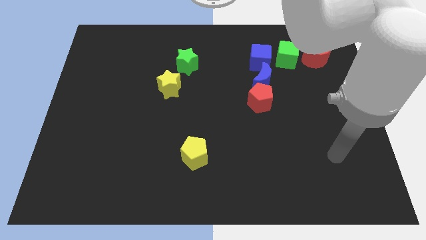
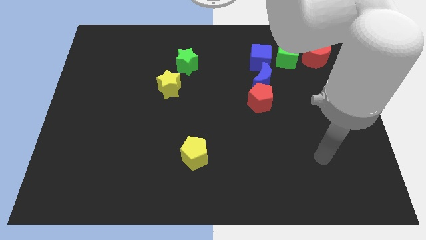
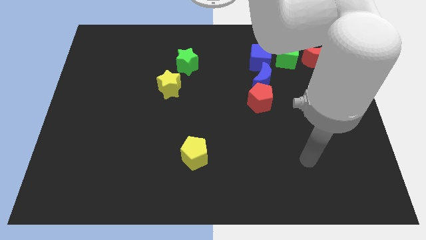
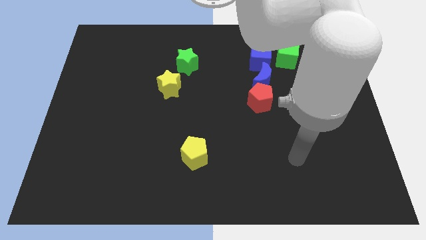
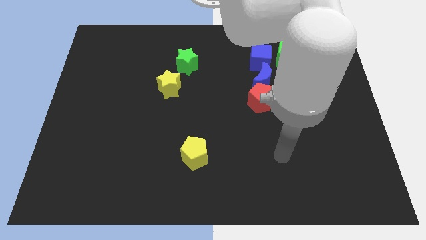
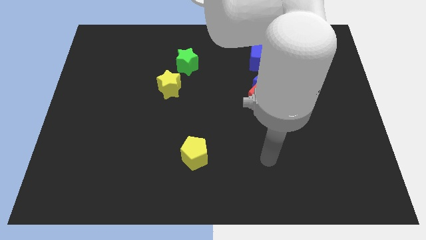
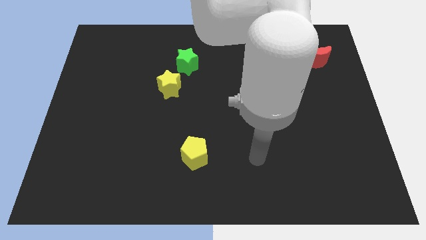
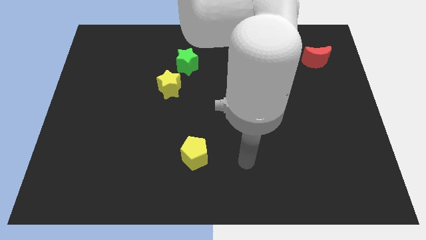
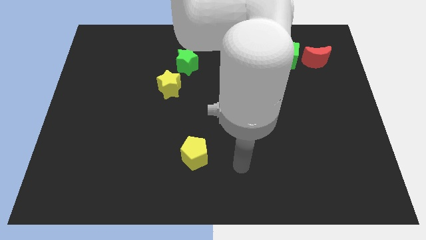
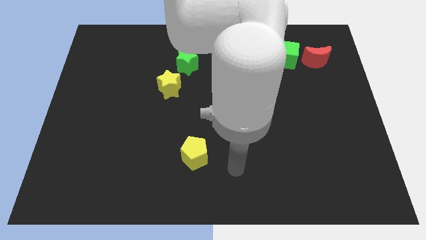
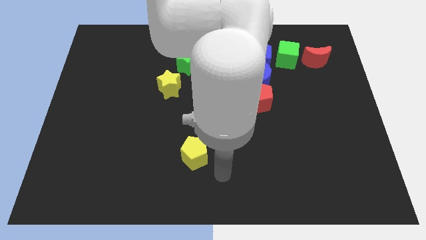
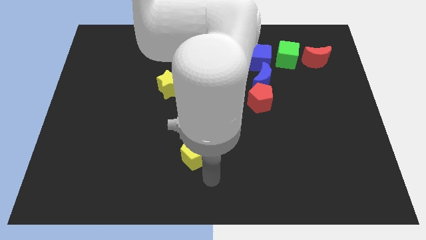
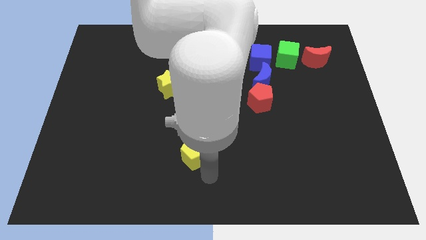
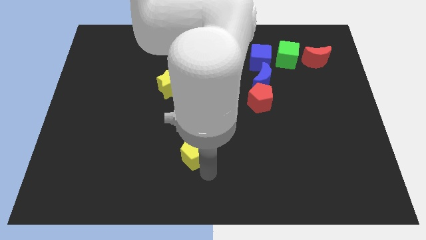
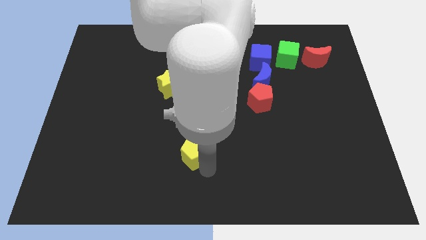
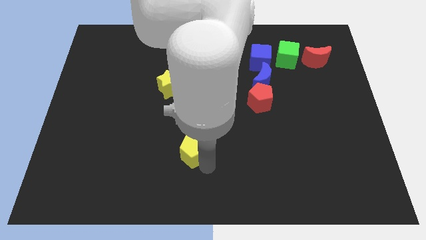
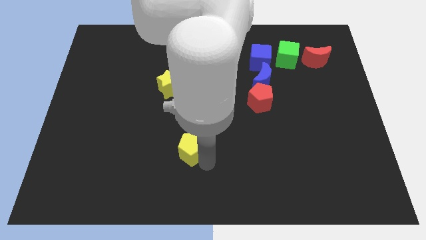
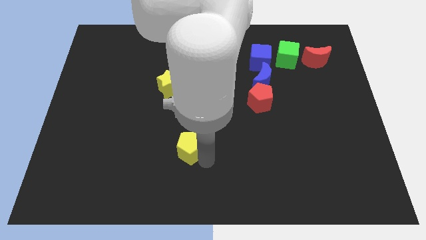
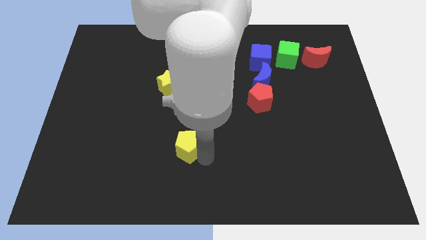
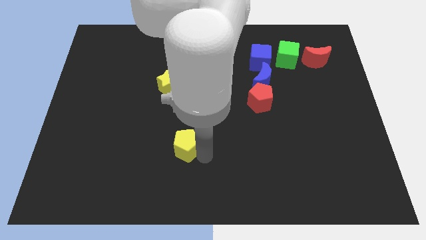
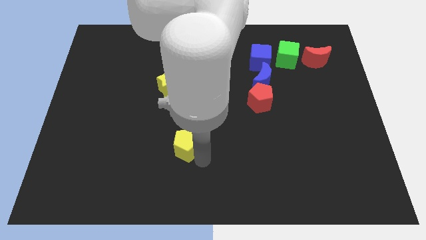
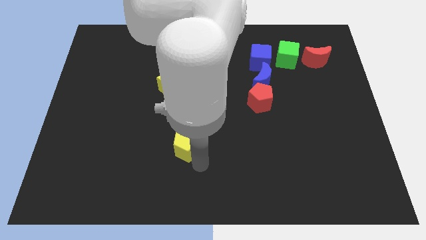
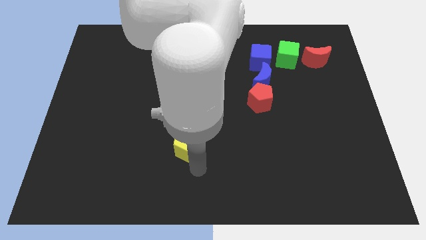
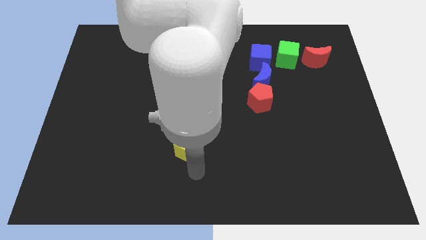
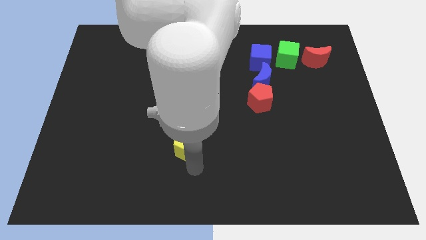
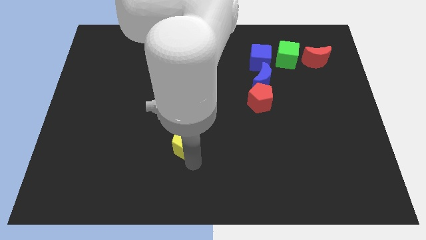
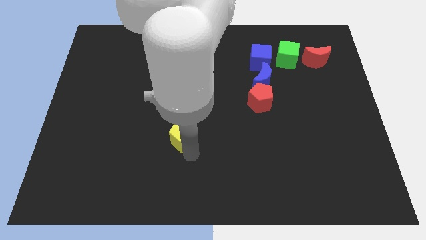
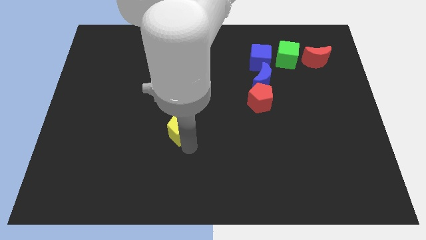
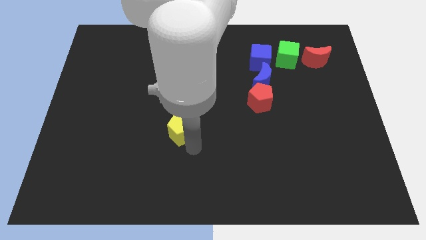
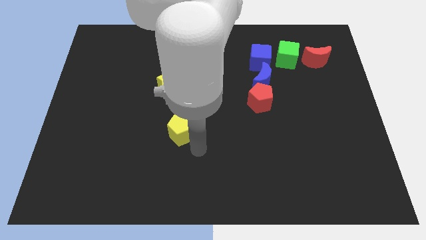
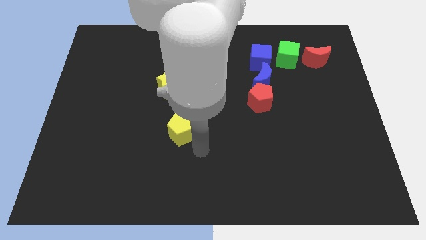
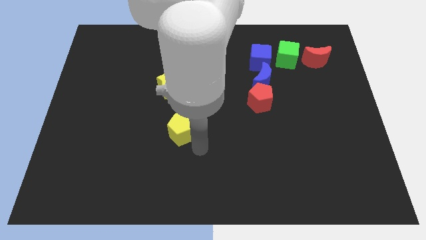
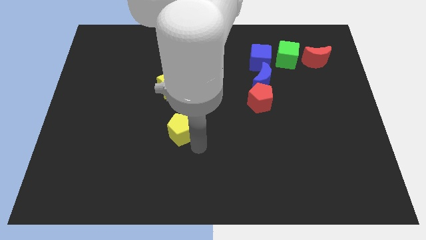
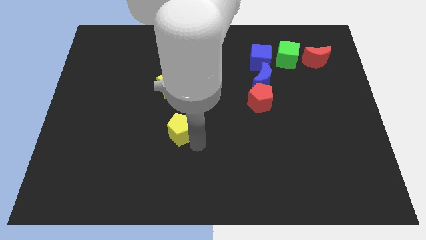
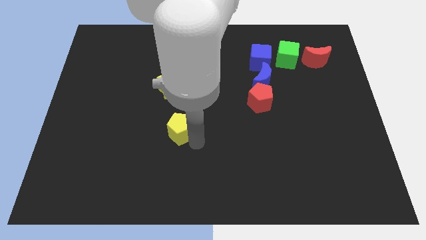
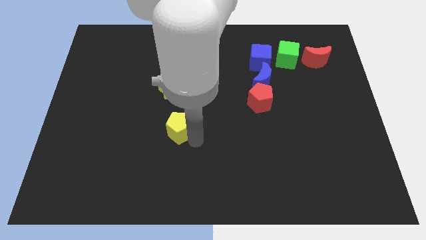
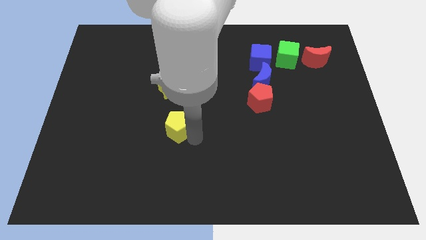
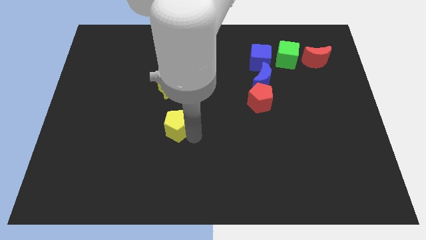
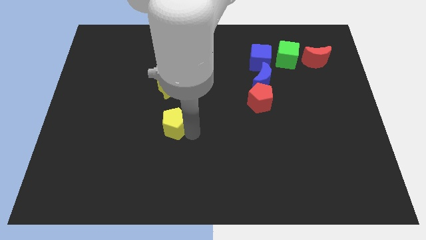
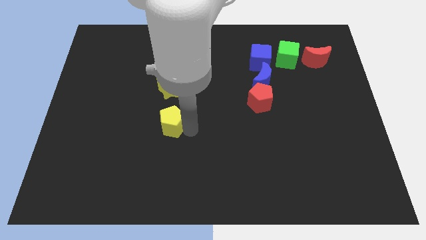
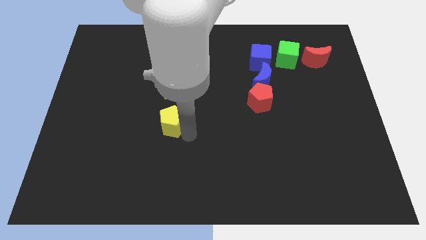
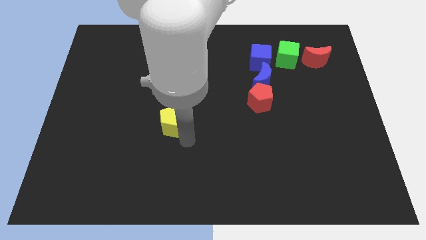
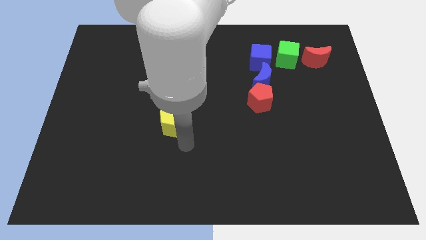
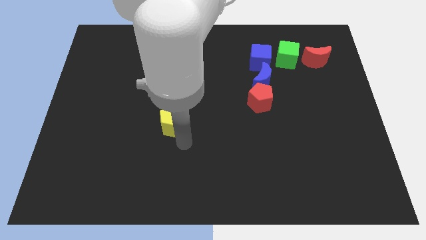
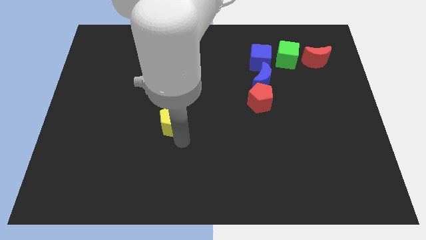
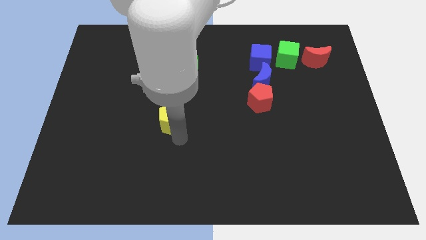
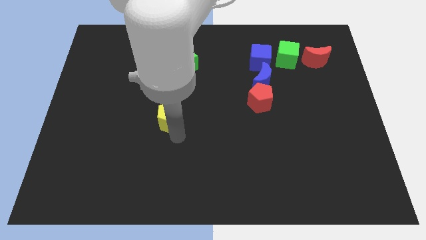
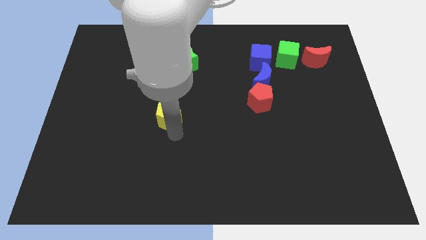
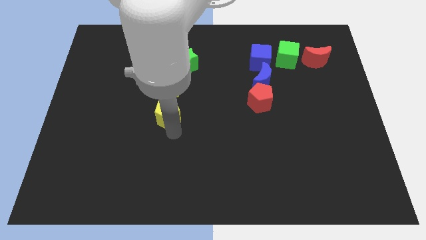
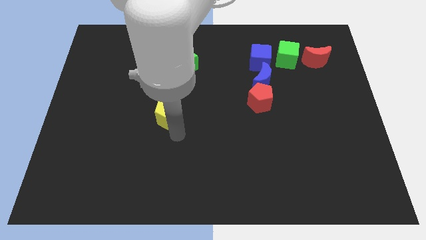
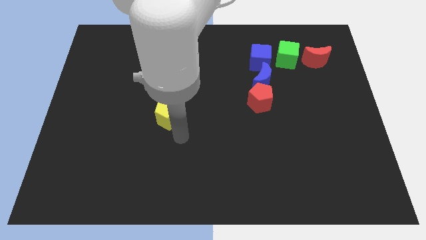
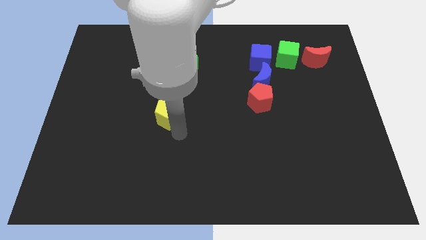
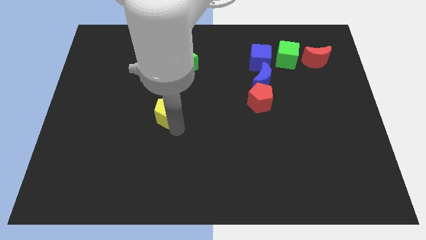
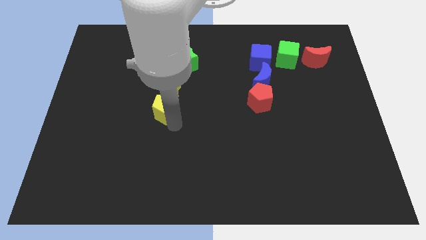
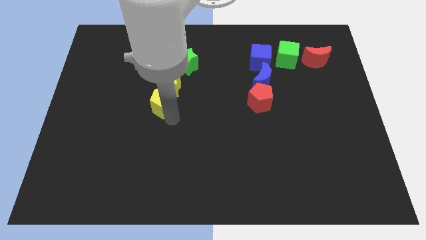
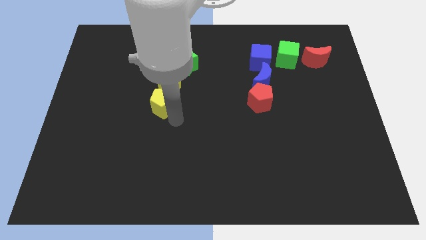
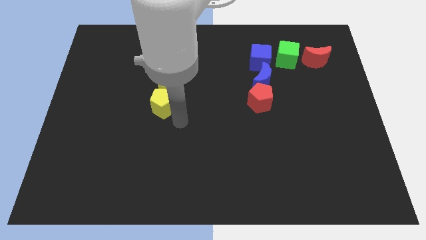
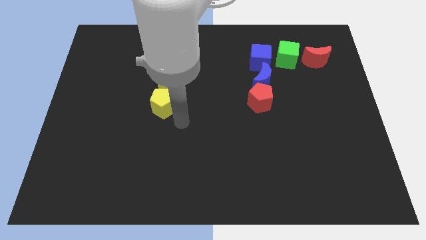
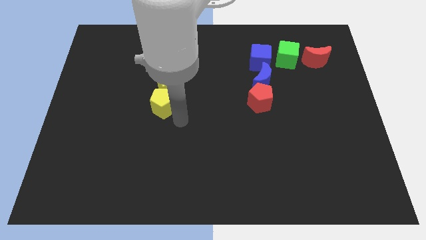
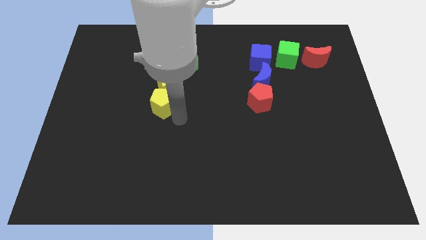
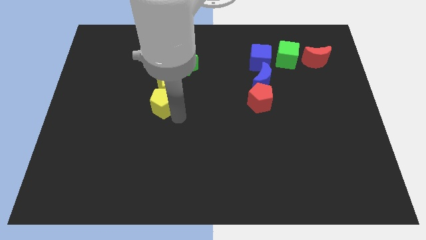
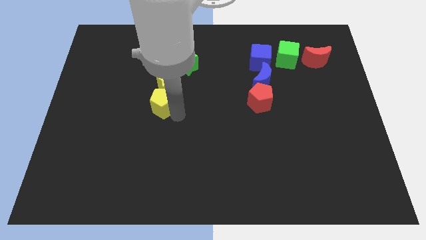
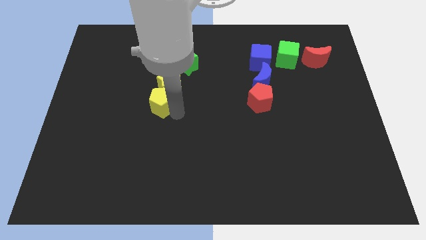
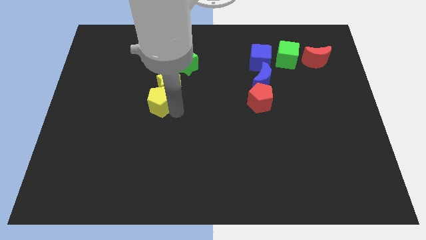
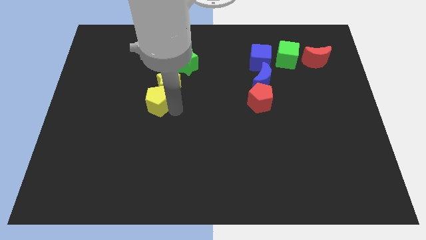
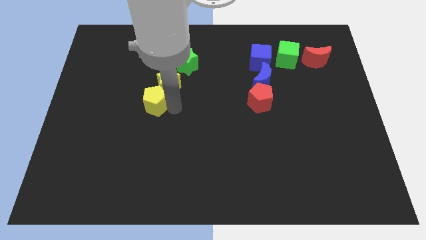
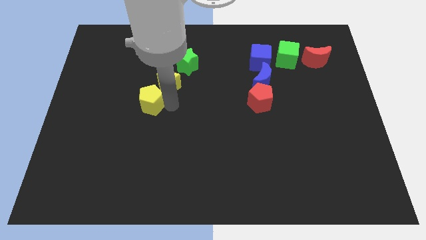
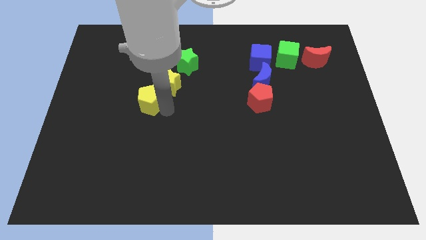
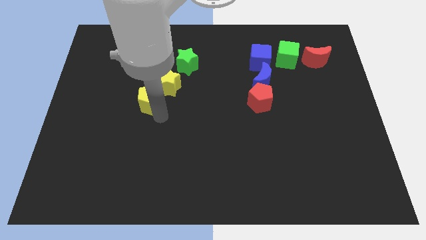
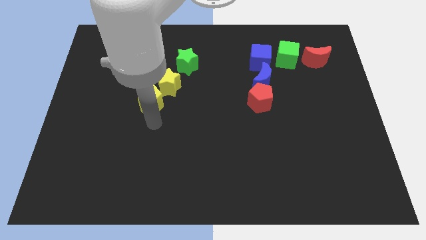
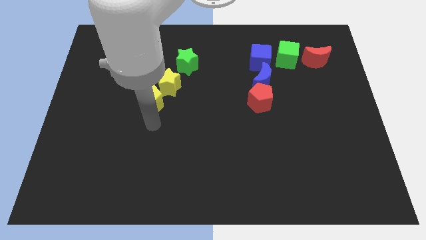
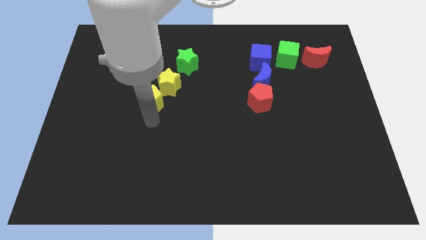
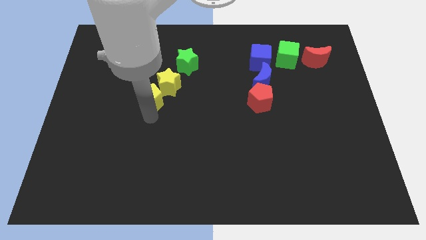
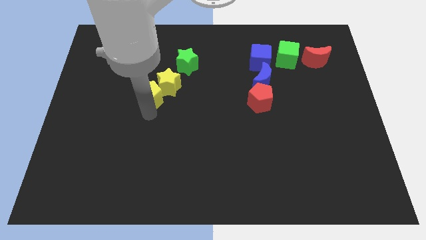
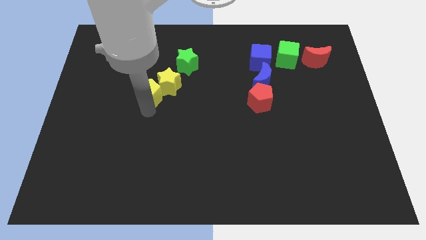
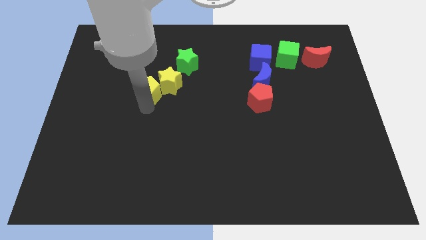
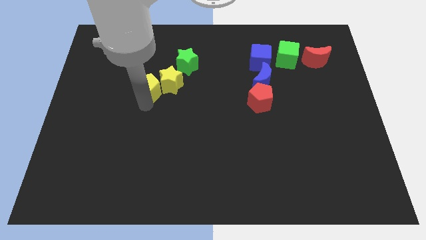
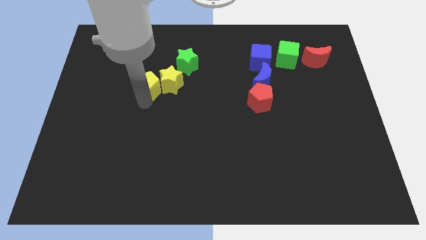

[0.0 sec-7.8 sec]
slide the yellow pentagon diagonally up and to the left of the yellow star
